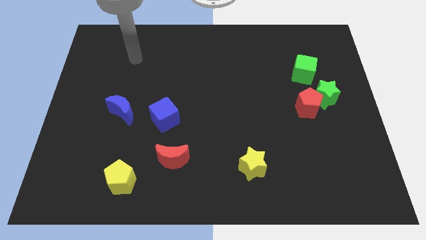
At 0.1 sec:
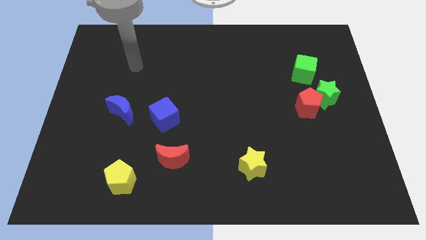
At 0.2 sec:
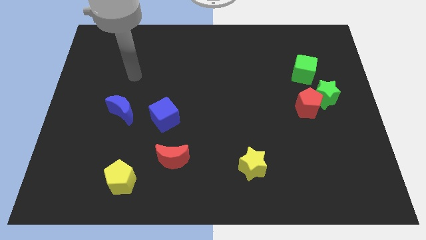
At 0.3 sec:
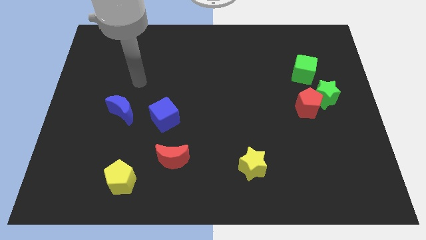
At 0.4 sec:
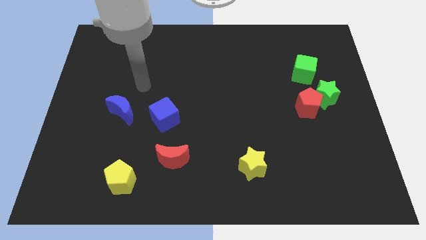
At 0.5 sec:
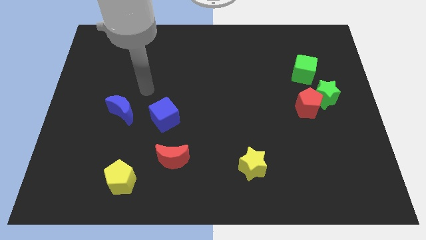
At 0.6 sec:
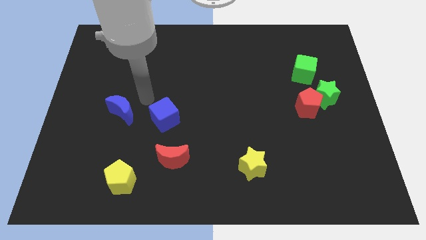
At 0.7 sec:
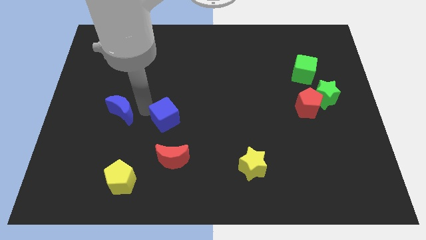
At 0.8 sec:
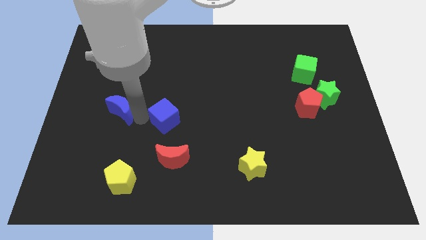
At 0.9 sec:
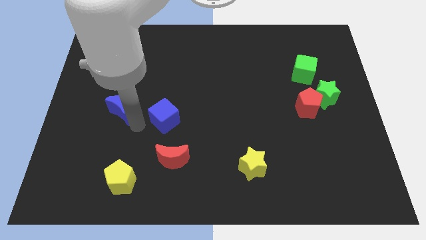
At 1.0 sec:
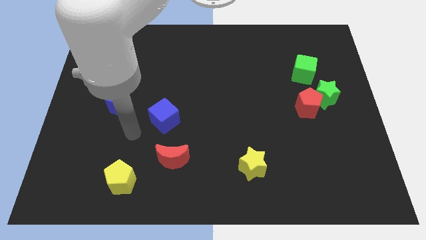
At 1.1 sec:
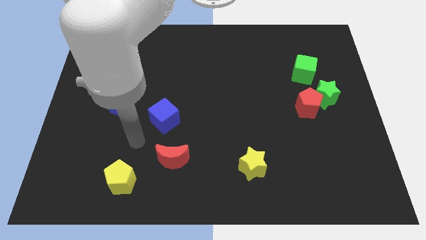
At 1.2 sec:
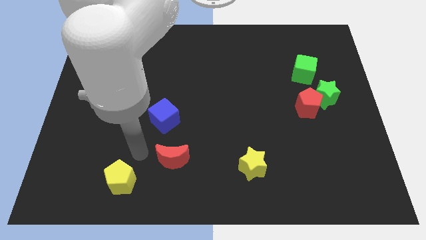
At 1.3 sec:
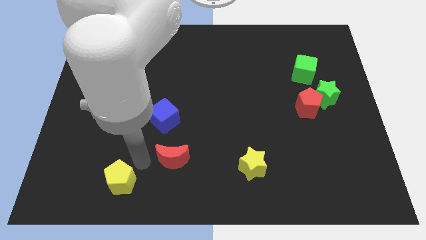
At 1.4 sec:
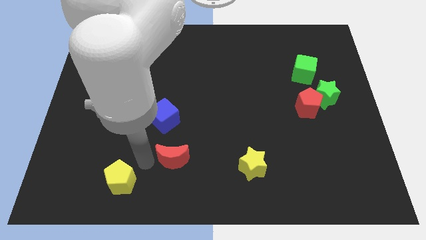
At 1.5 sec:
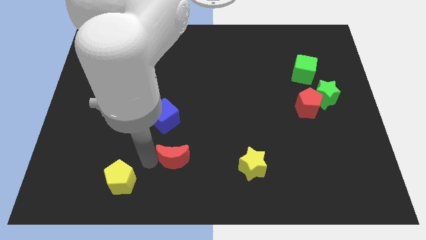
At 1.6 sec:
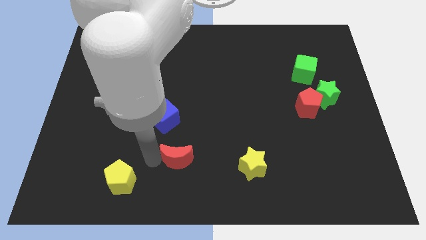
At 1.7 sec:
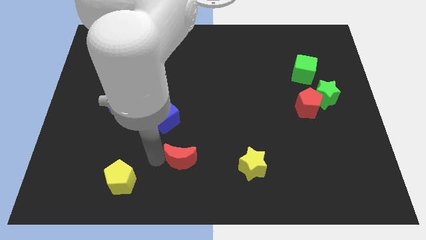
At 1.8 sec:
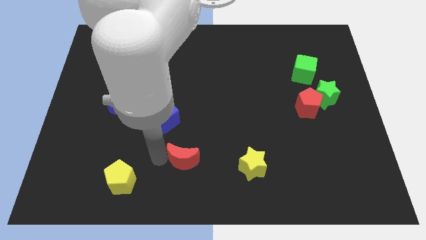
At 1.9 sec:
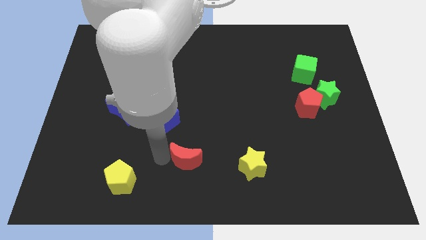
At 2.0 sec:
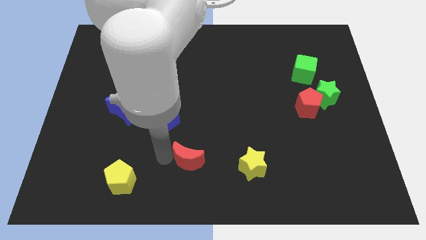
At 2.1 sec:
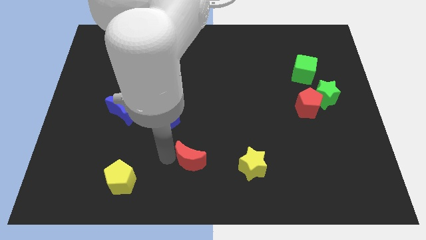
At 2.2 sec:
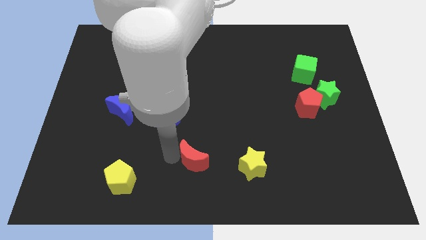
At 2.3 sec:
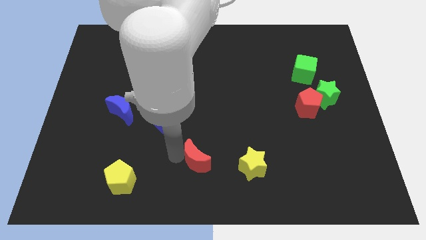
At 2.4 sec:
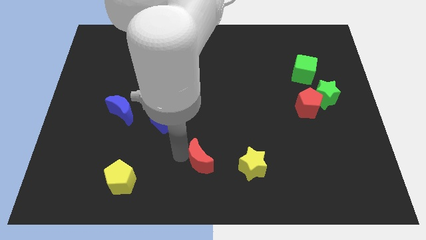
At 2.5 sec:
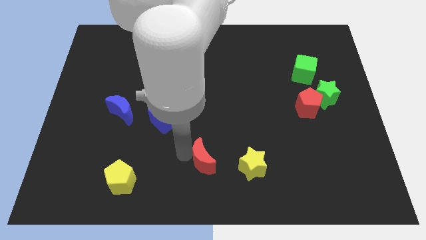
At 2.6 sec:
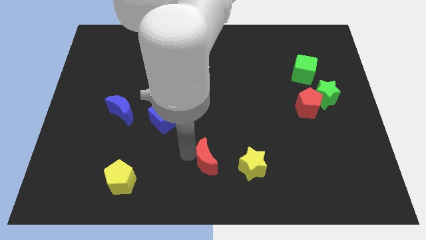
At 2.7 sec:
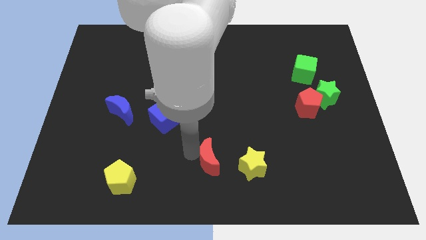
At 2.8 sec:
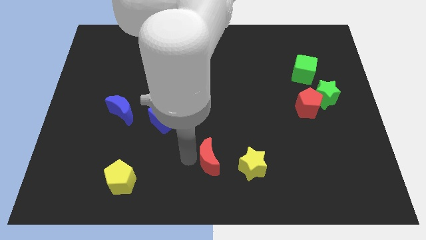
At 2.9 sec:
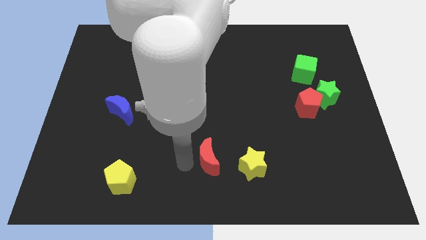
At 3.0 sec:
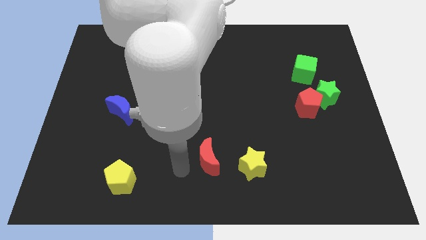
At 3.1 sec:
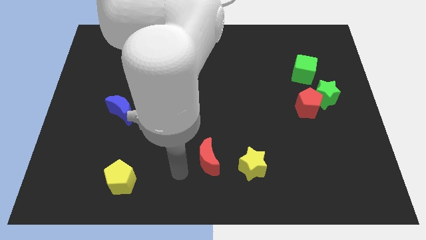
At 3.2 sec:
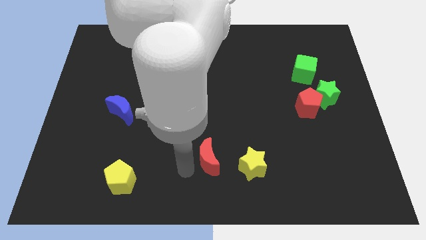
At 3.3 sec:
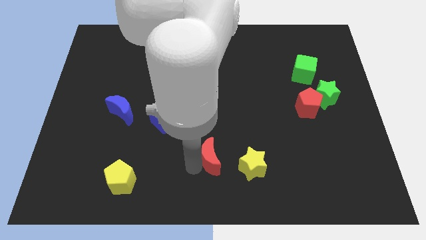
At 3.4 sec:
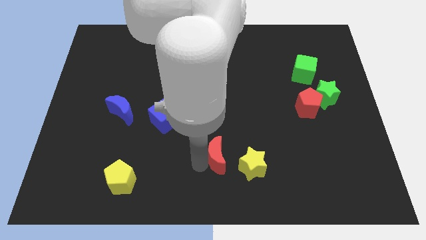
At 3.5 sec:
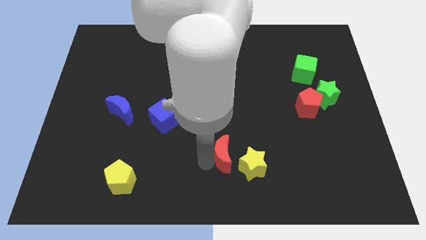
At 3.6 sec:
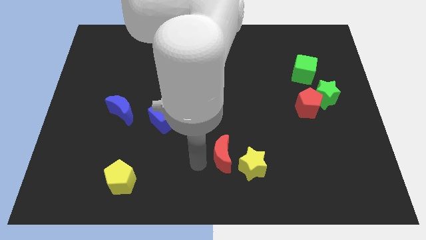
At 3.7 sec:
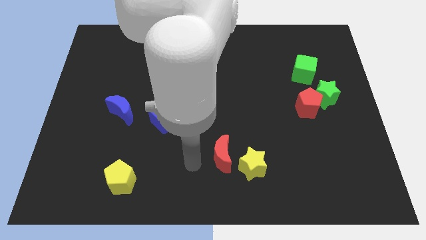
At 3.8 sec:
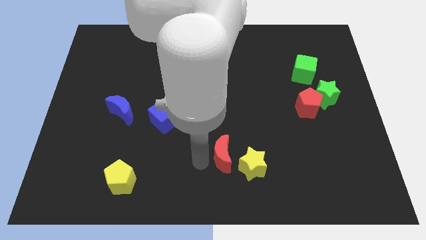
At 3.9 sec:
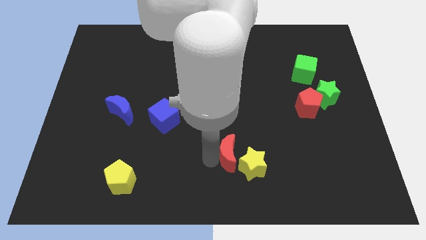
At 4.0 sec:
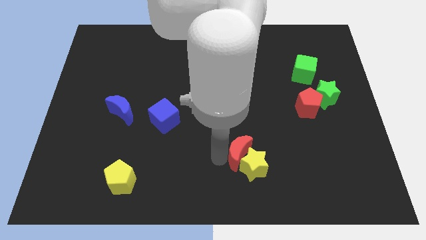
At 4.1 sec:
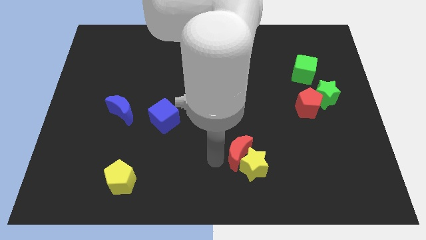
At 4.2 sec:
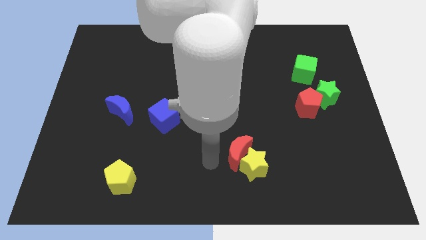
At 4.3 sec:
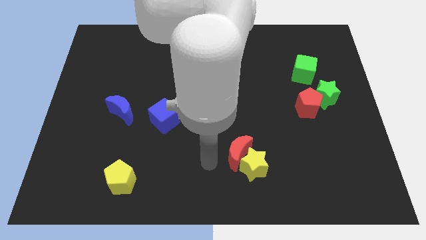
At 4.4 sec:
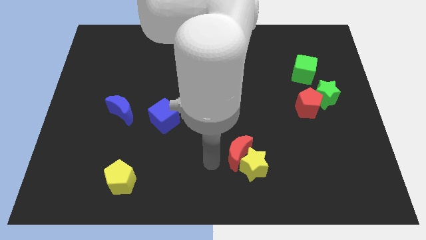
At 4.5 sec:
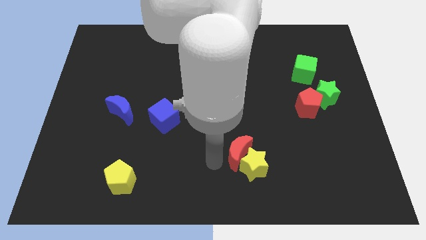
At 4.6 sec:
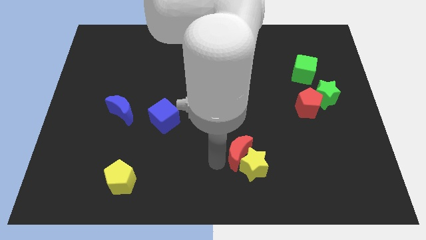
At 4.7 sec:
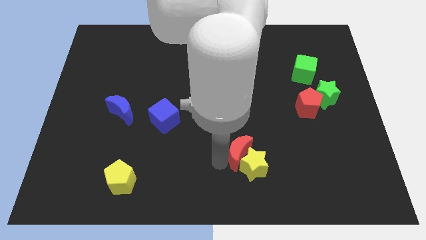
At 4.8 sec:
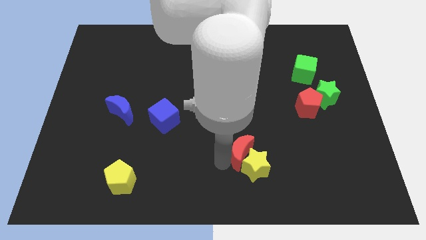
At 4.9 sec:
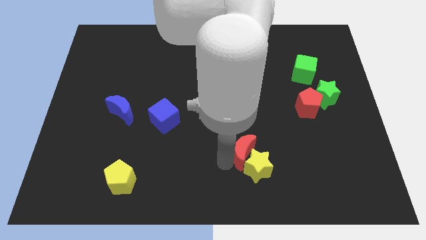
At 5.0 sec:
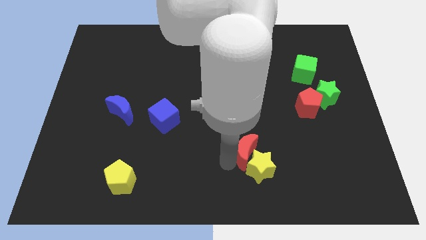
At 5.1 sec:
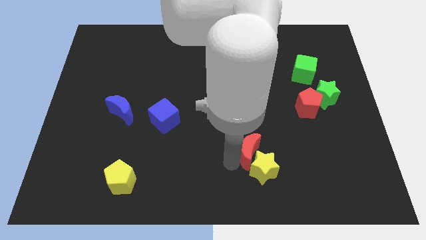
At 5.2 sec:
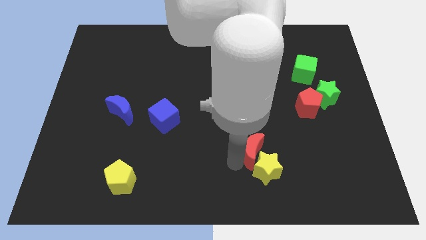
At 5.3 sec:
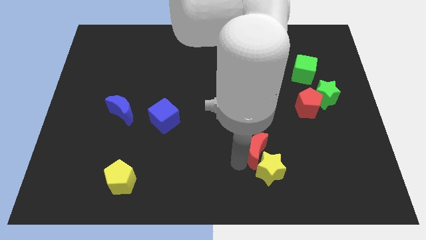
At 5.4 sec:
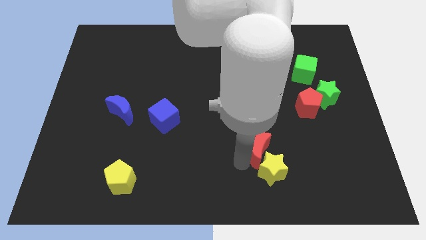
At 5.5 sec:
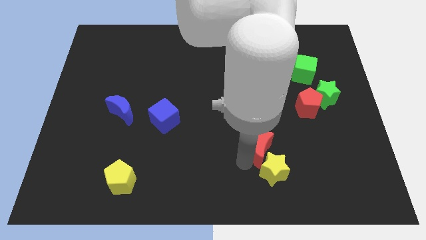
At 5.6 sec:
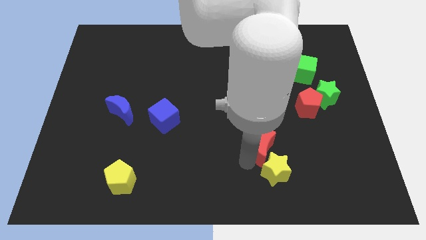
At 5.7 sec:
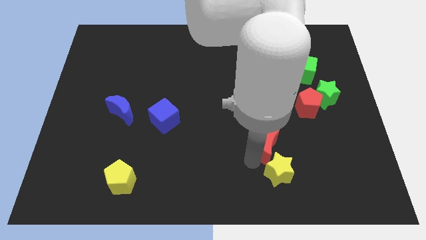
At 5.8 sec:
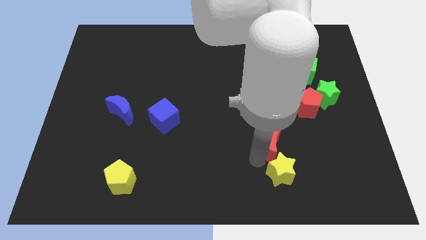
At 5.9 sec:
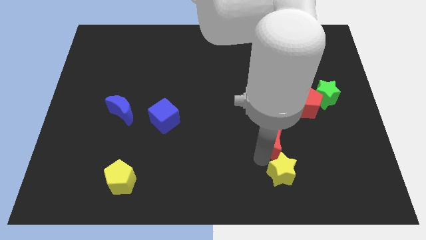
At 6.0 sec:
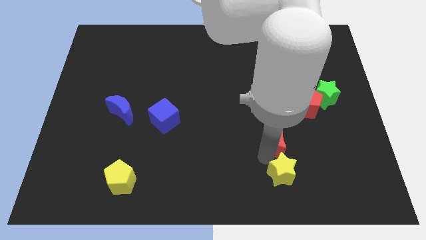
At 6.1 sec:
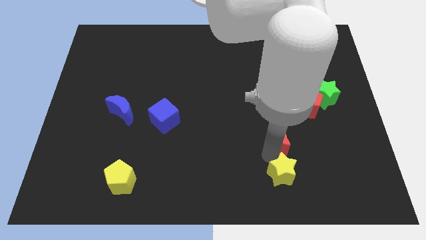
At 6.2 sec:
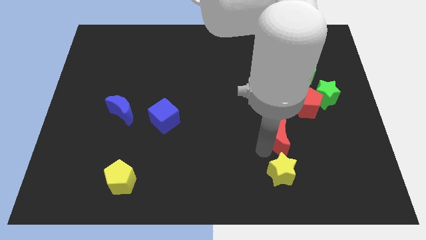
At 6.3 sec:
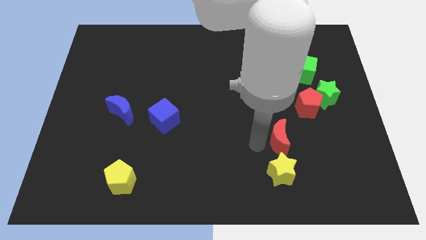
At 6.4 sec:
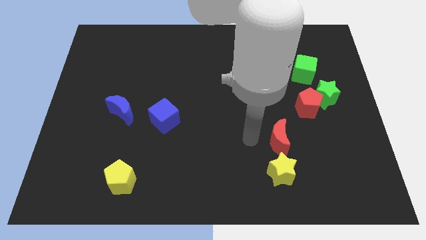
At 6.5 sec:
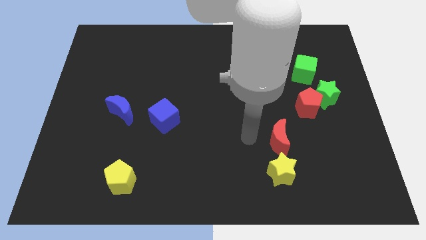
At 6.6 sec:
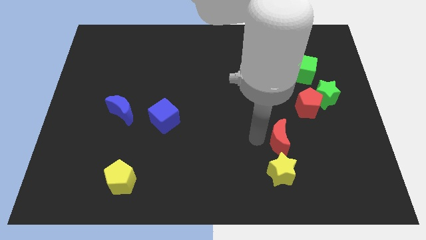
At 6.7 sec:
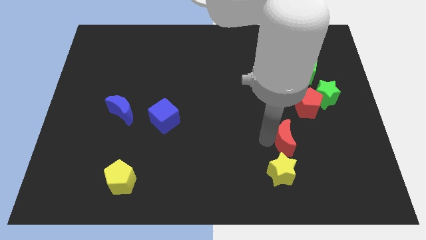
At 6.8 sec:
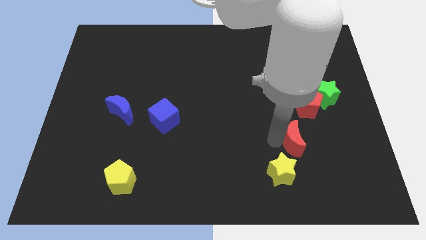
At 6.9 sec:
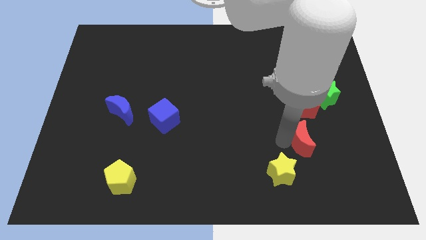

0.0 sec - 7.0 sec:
move the red moon to the bottom side of the red pentagon
